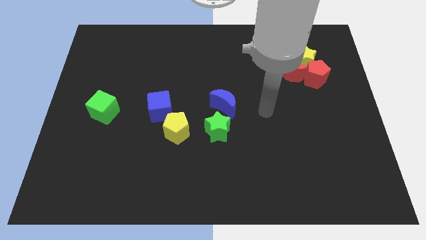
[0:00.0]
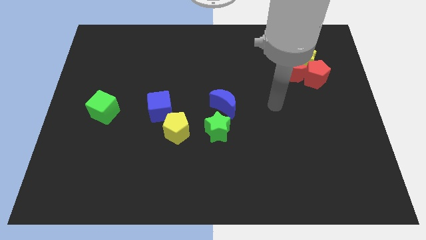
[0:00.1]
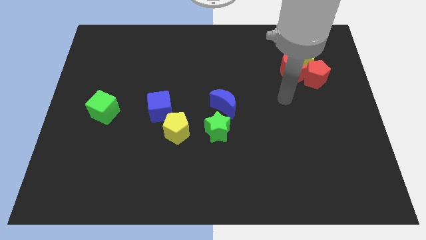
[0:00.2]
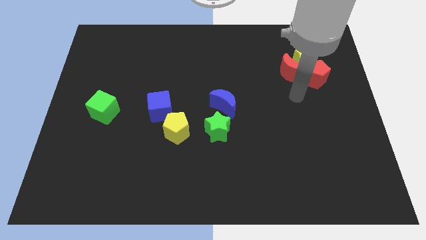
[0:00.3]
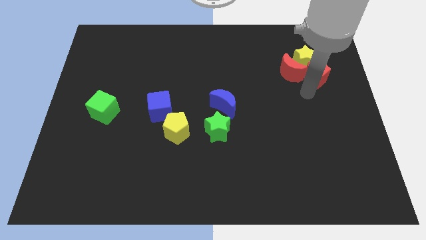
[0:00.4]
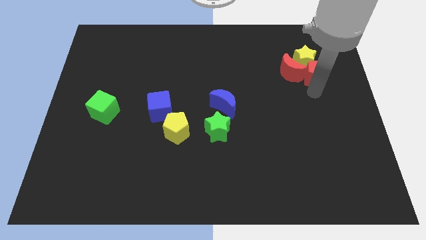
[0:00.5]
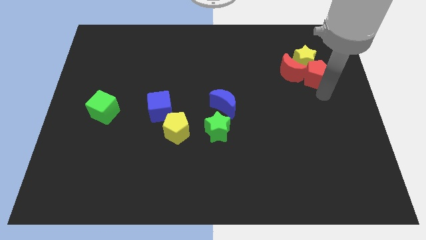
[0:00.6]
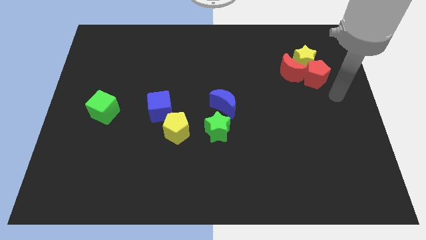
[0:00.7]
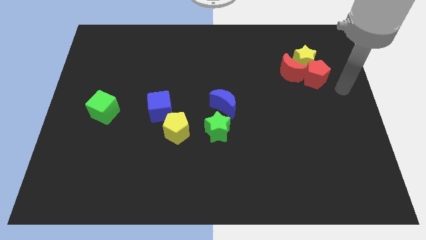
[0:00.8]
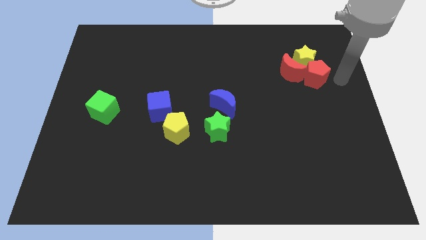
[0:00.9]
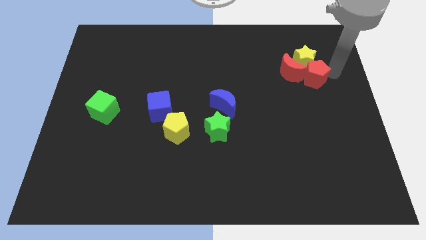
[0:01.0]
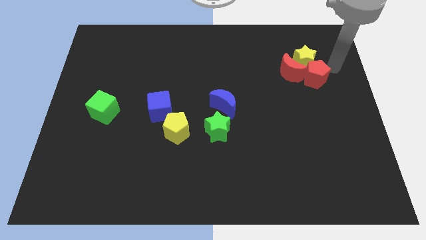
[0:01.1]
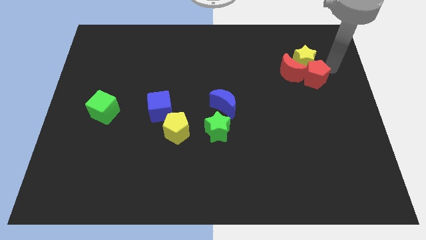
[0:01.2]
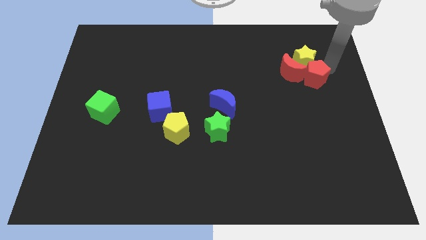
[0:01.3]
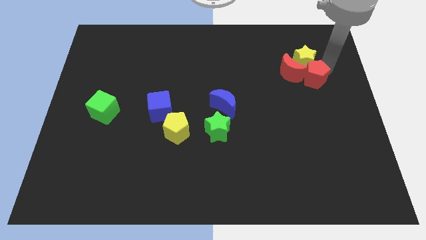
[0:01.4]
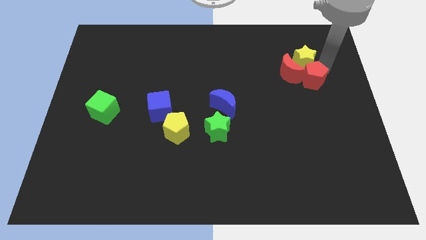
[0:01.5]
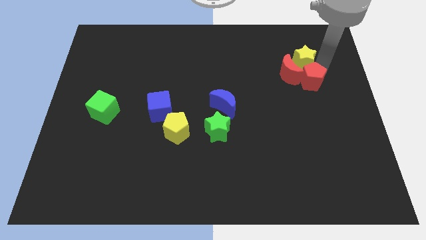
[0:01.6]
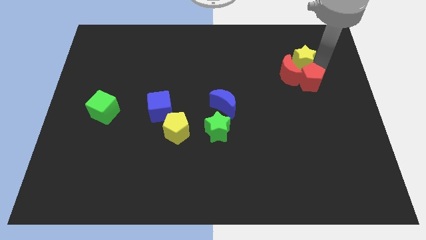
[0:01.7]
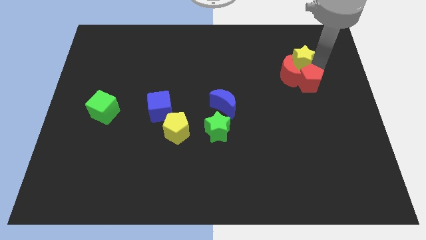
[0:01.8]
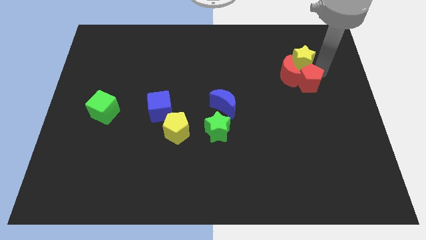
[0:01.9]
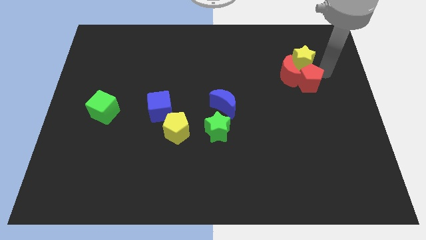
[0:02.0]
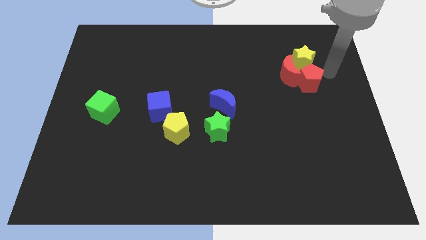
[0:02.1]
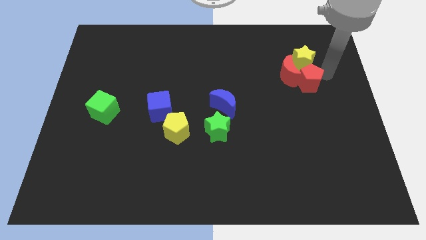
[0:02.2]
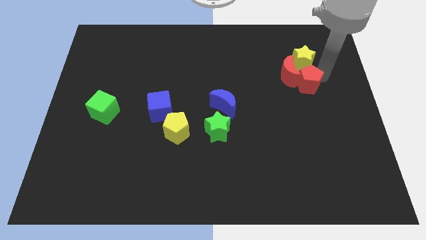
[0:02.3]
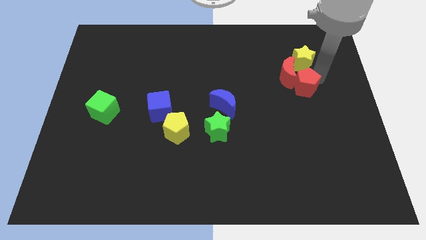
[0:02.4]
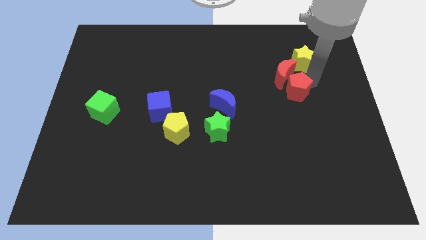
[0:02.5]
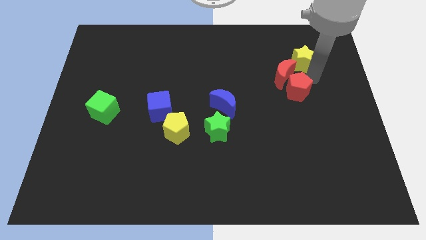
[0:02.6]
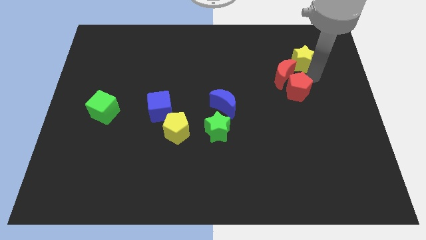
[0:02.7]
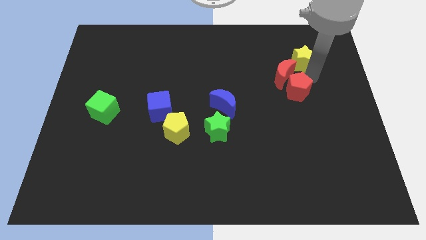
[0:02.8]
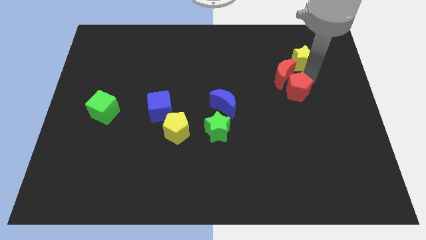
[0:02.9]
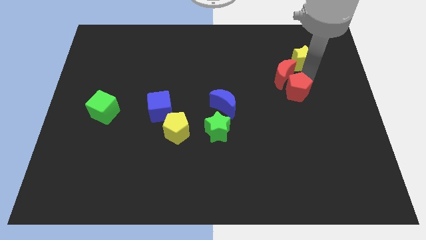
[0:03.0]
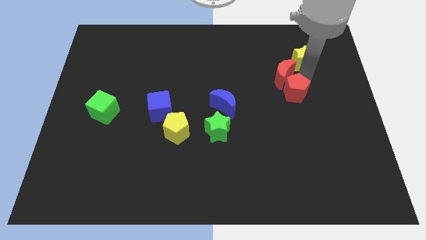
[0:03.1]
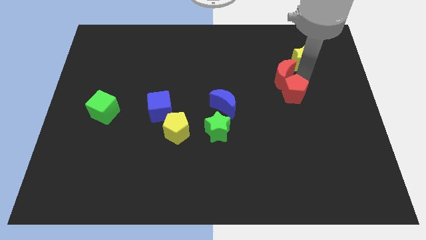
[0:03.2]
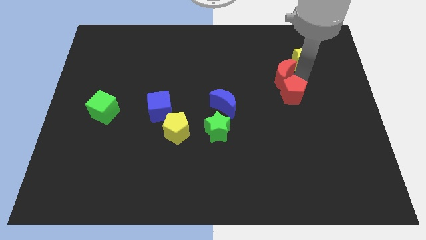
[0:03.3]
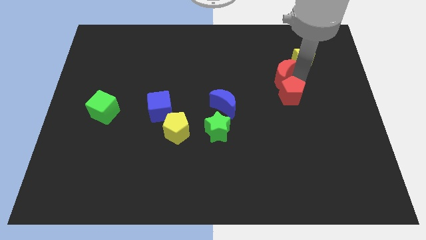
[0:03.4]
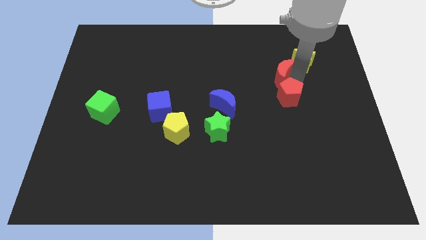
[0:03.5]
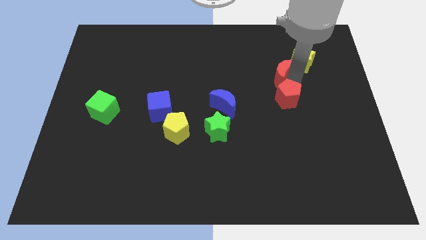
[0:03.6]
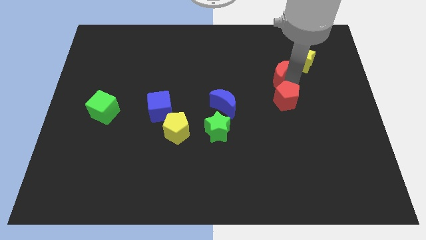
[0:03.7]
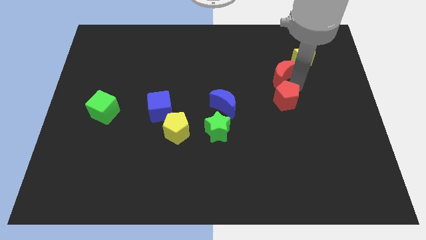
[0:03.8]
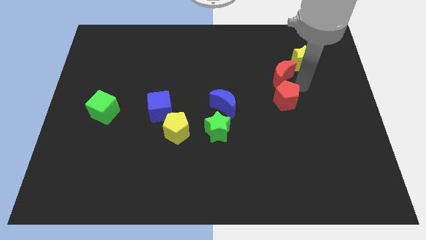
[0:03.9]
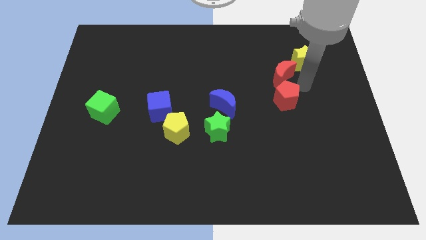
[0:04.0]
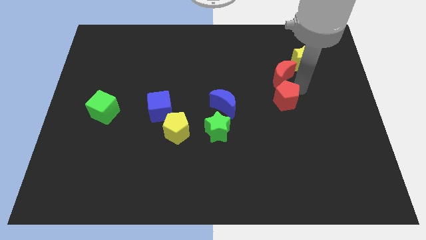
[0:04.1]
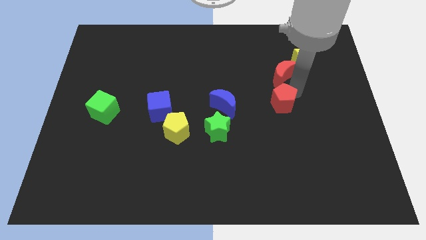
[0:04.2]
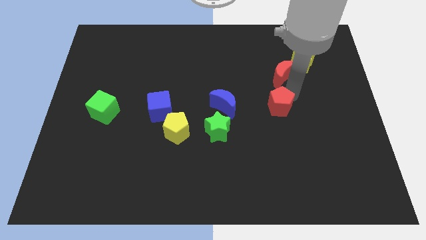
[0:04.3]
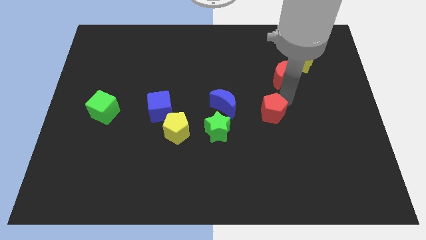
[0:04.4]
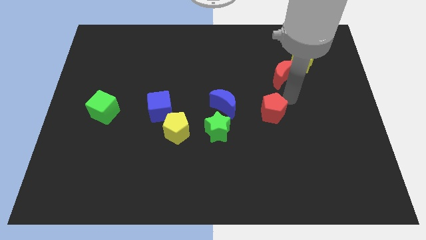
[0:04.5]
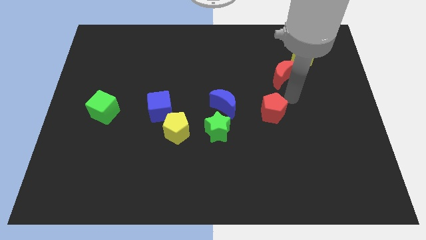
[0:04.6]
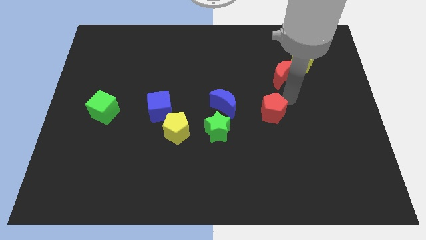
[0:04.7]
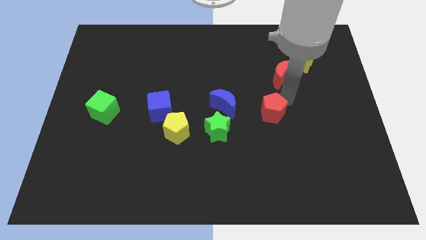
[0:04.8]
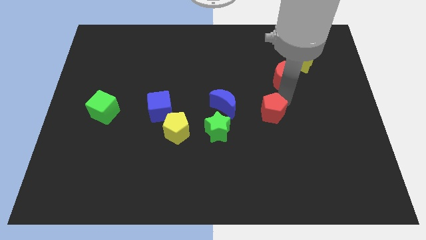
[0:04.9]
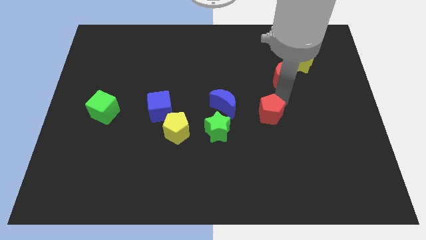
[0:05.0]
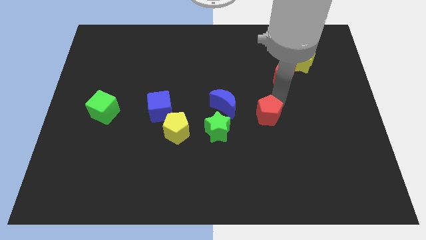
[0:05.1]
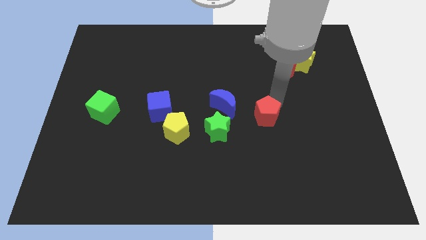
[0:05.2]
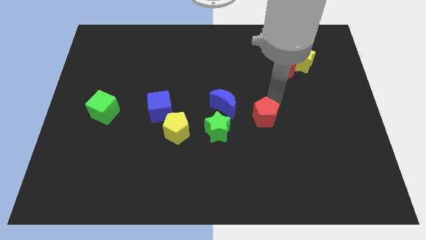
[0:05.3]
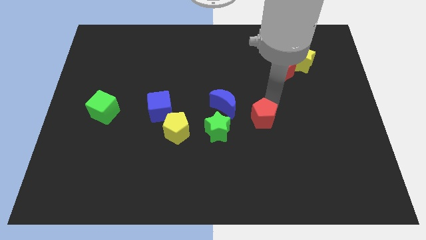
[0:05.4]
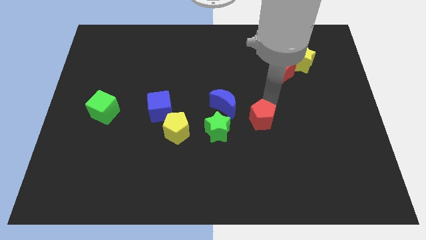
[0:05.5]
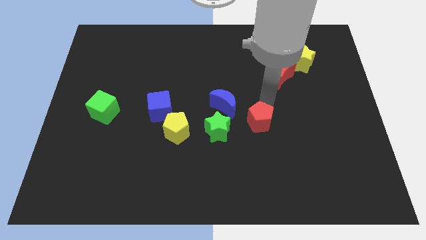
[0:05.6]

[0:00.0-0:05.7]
push the red pentagon downwards and to the left

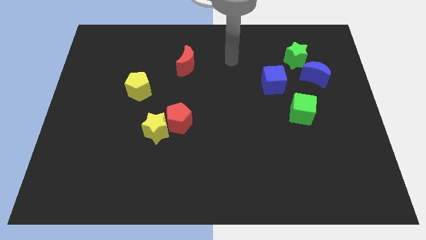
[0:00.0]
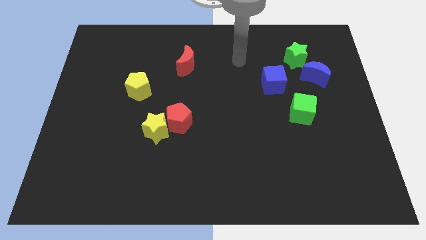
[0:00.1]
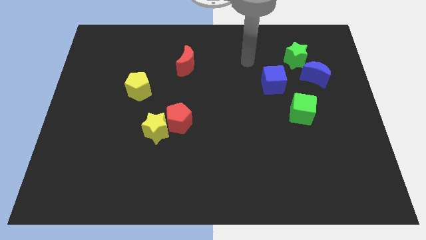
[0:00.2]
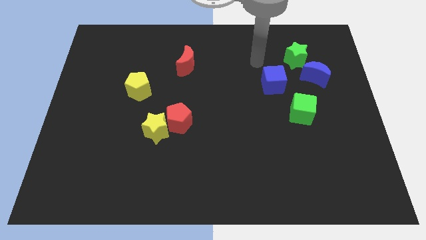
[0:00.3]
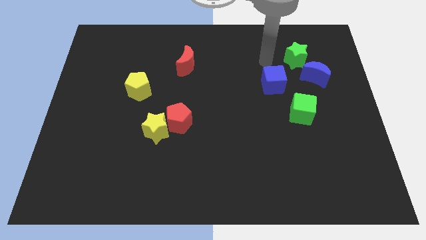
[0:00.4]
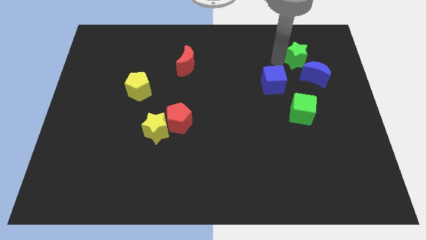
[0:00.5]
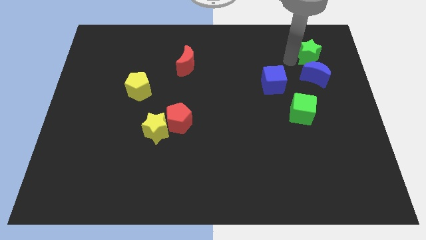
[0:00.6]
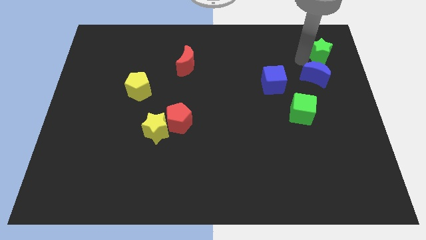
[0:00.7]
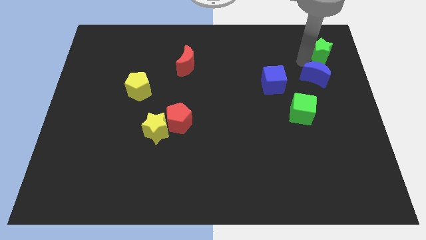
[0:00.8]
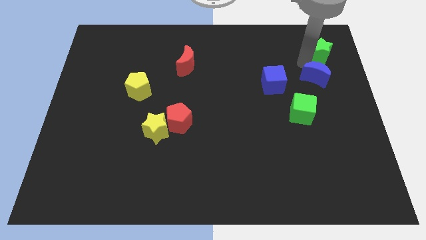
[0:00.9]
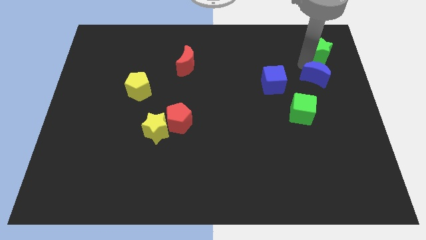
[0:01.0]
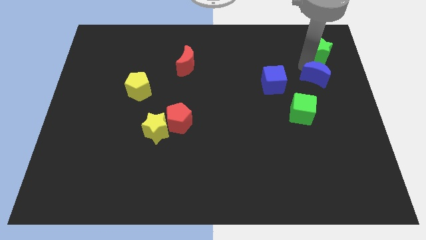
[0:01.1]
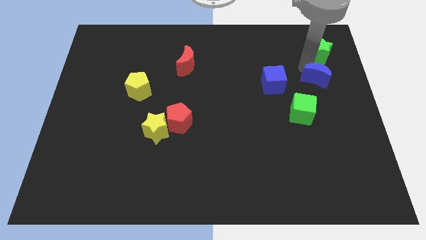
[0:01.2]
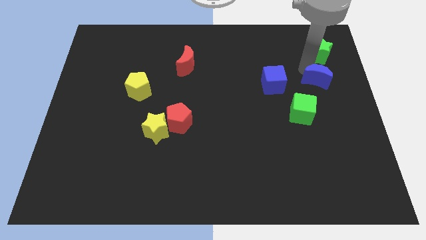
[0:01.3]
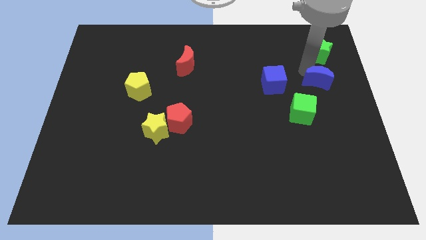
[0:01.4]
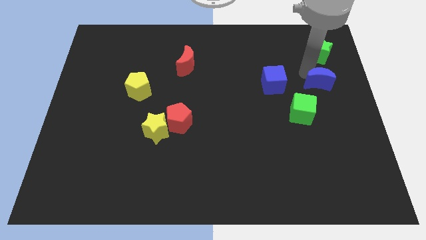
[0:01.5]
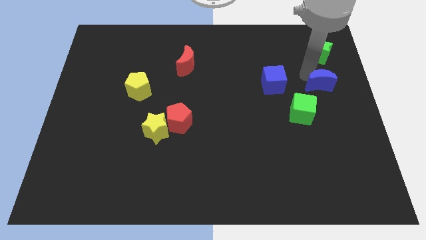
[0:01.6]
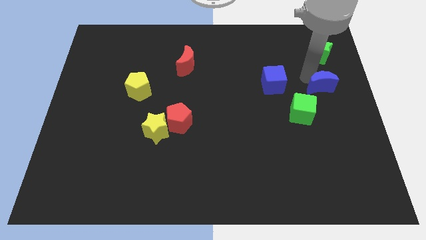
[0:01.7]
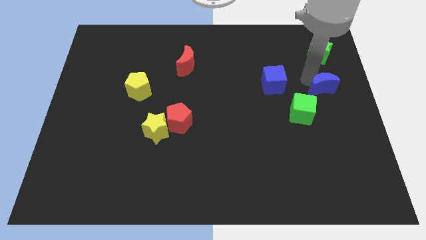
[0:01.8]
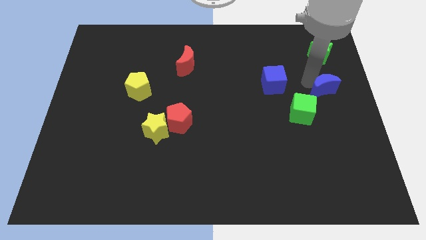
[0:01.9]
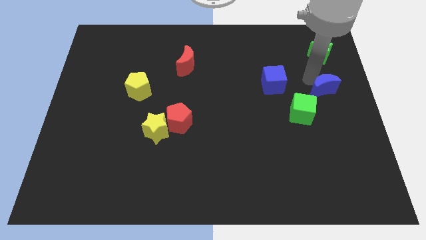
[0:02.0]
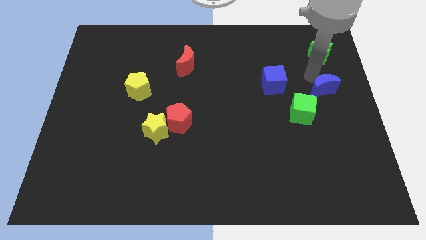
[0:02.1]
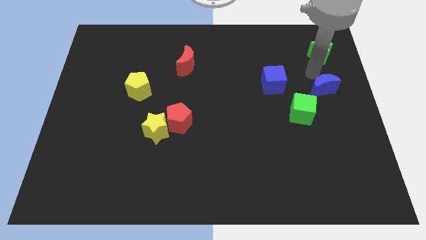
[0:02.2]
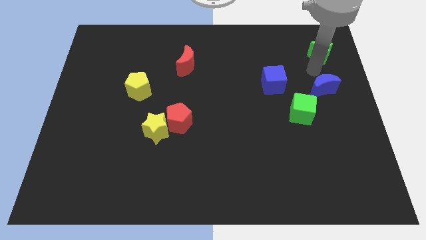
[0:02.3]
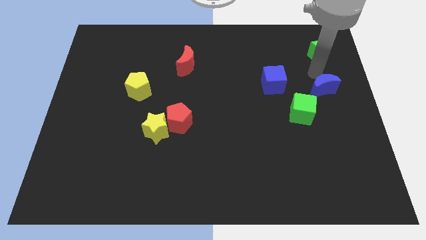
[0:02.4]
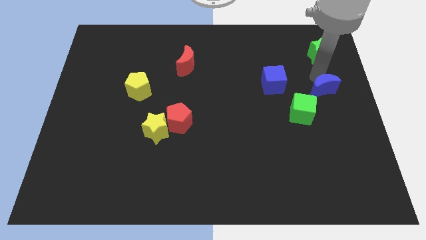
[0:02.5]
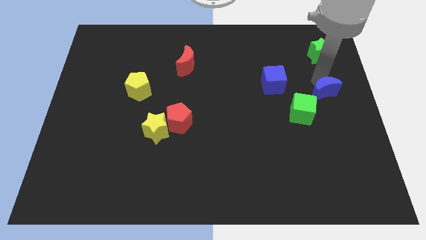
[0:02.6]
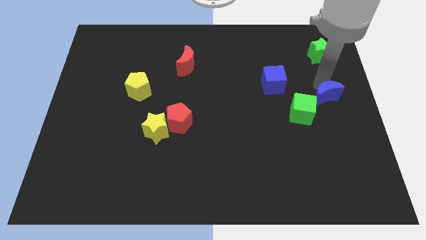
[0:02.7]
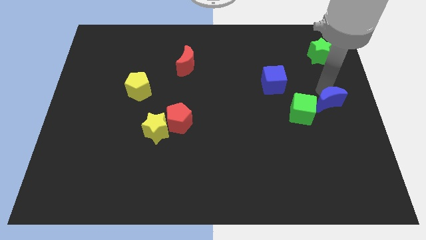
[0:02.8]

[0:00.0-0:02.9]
slide the blue moon a bit down
